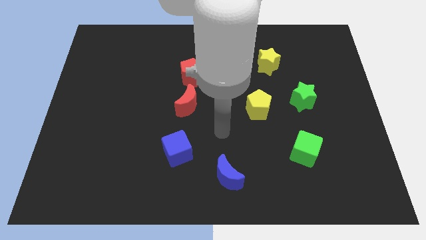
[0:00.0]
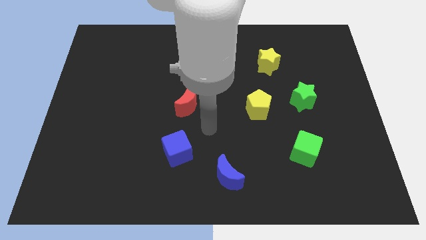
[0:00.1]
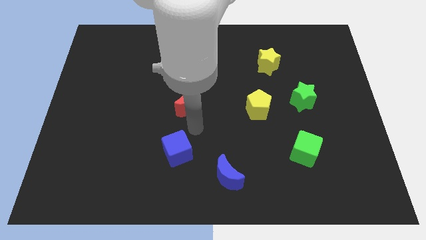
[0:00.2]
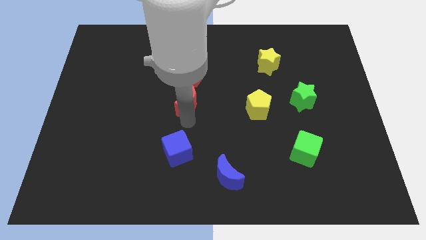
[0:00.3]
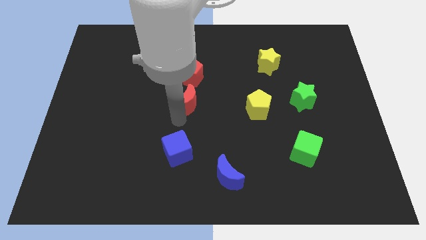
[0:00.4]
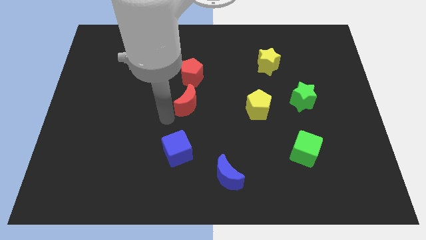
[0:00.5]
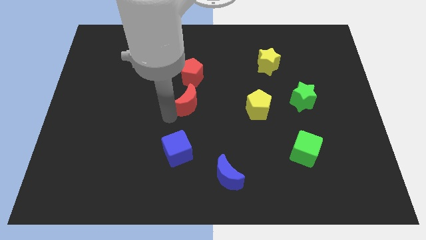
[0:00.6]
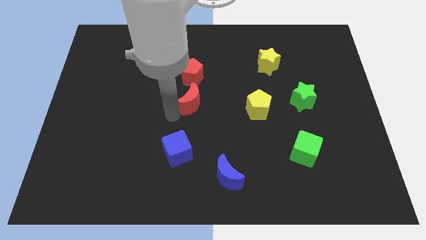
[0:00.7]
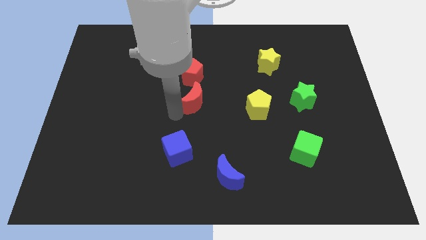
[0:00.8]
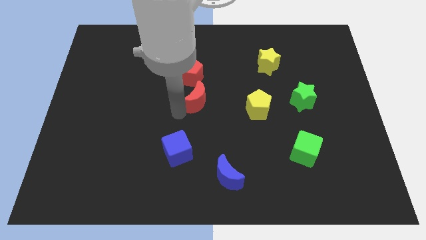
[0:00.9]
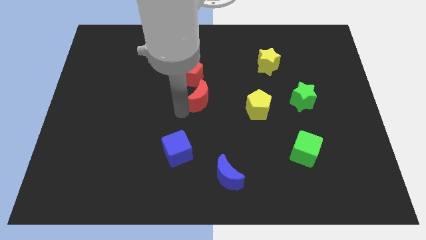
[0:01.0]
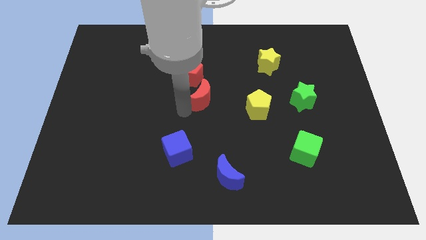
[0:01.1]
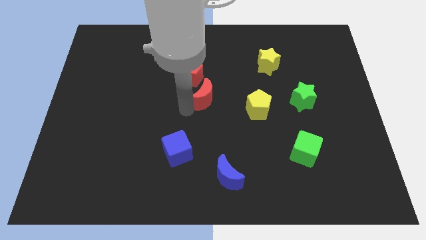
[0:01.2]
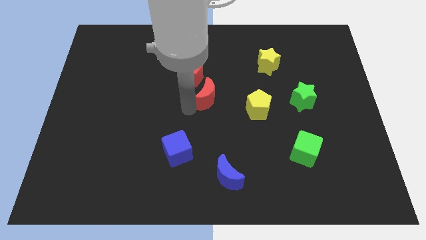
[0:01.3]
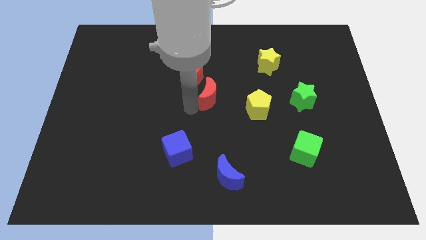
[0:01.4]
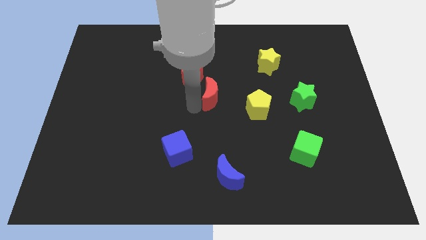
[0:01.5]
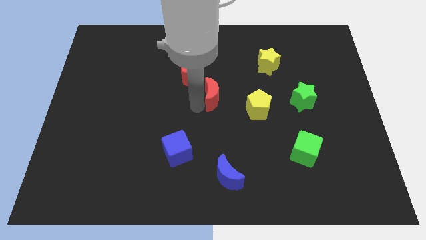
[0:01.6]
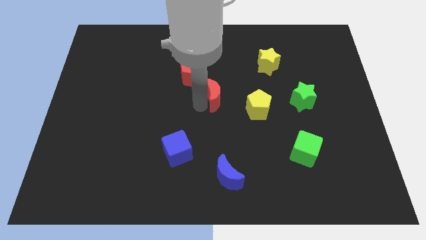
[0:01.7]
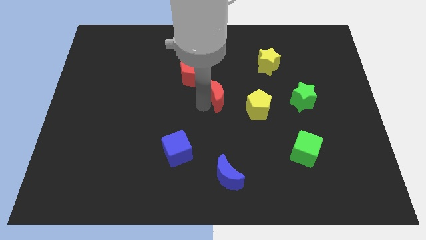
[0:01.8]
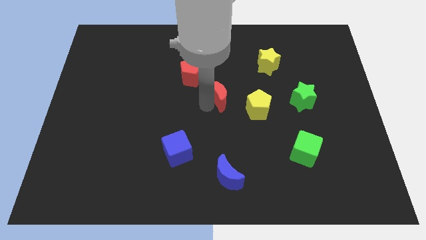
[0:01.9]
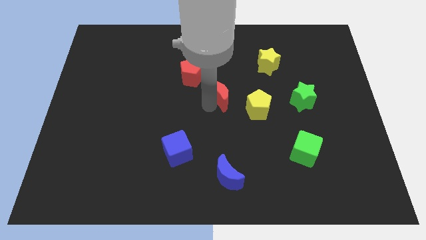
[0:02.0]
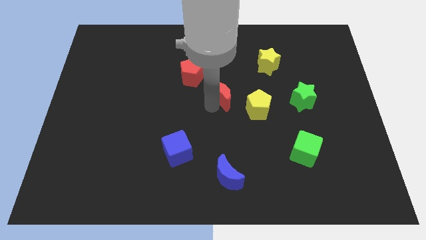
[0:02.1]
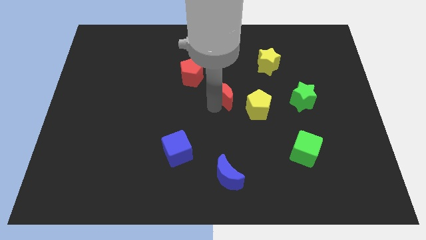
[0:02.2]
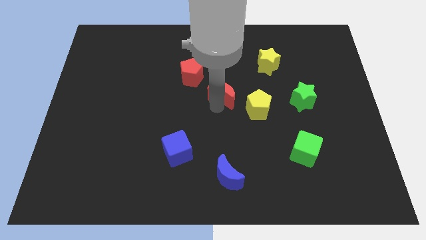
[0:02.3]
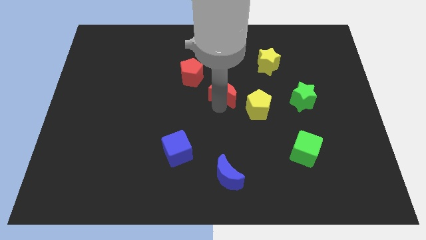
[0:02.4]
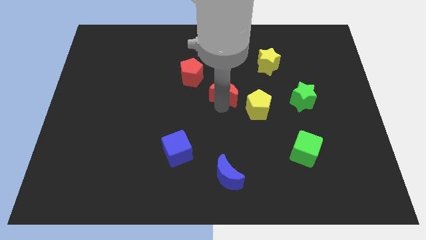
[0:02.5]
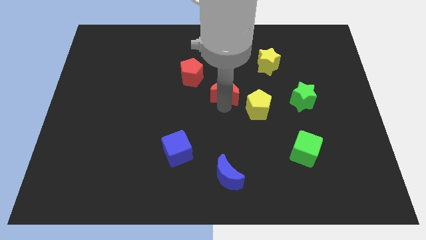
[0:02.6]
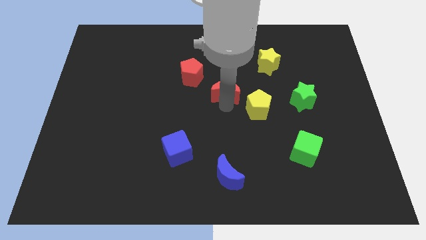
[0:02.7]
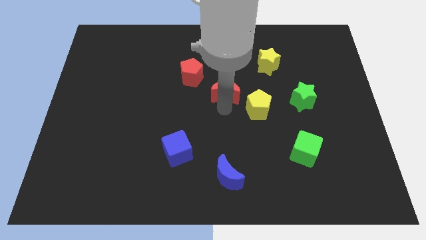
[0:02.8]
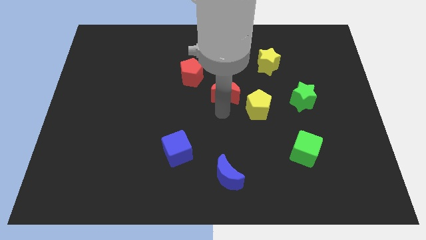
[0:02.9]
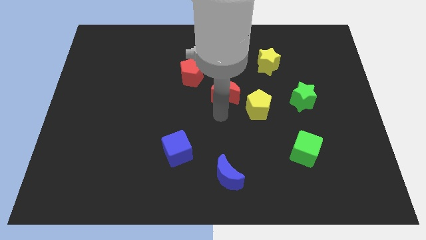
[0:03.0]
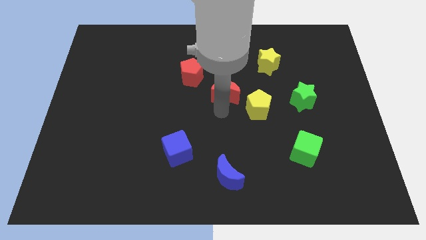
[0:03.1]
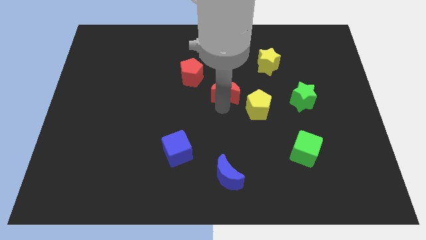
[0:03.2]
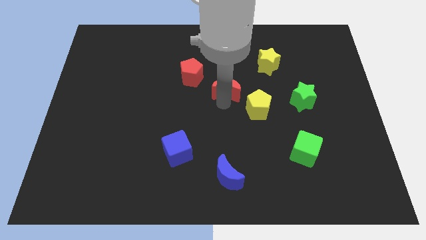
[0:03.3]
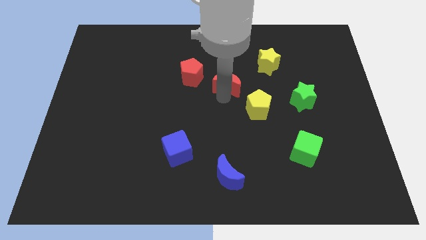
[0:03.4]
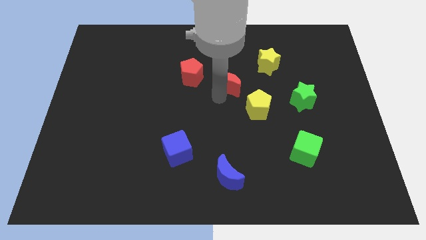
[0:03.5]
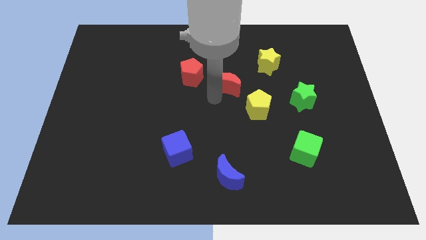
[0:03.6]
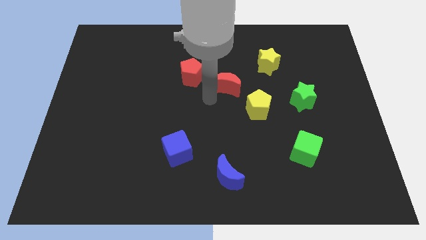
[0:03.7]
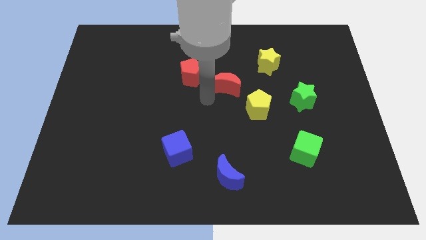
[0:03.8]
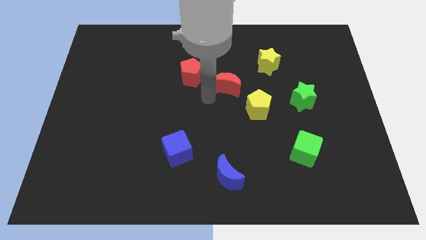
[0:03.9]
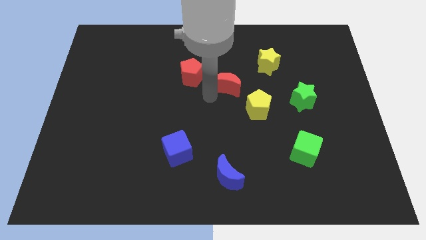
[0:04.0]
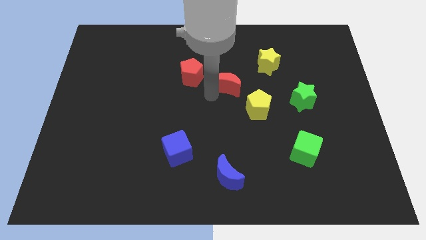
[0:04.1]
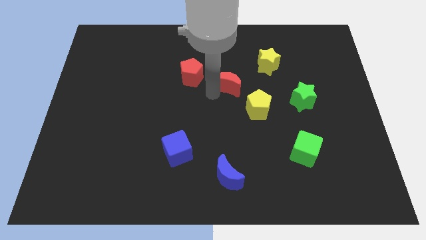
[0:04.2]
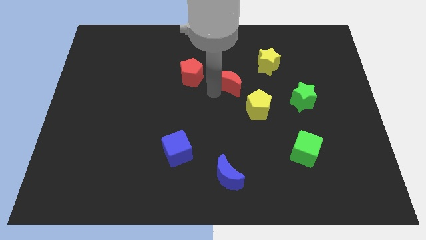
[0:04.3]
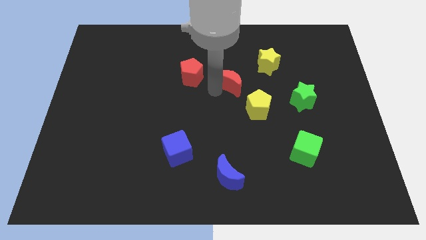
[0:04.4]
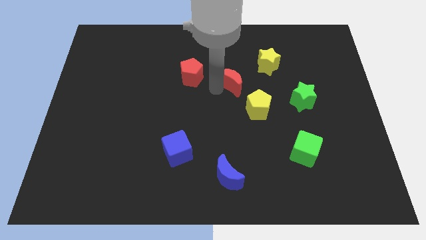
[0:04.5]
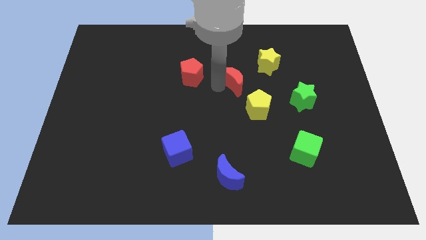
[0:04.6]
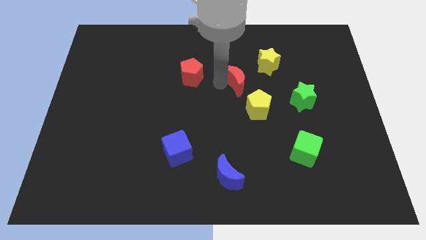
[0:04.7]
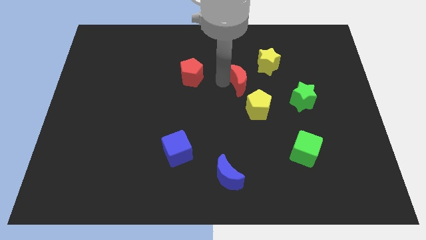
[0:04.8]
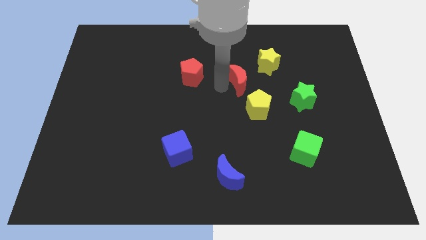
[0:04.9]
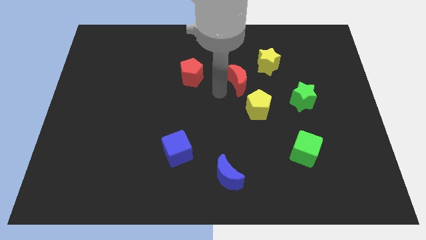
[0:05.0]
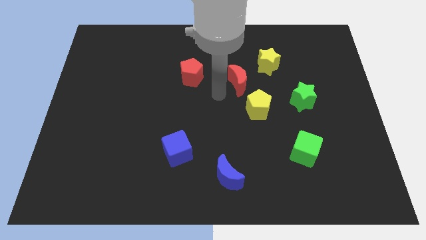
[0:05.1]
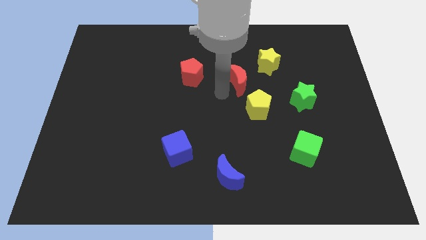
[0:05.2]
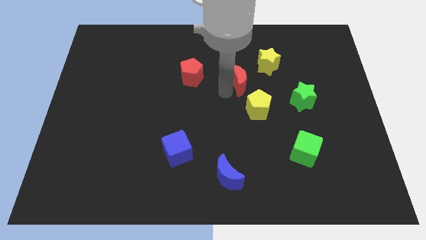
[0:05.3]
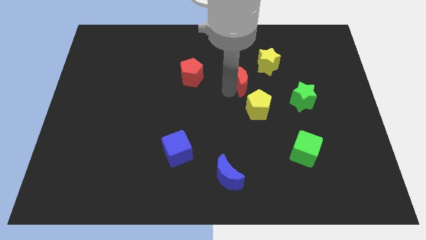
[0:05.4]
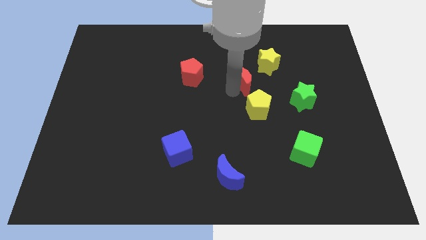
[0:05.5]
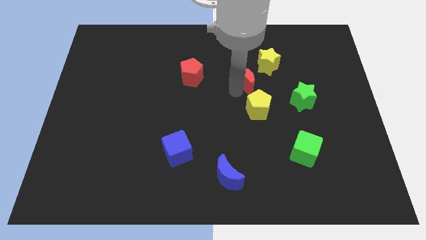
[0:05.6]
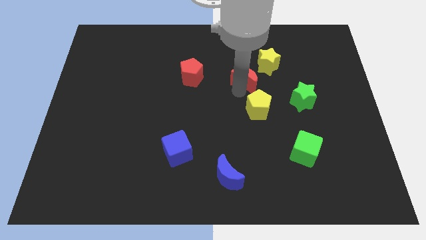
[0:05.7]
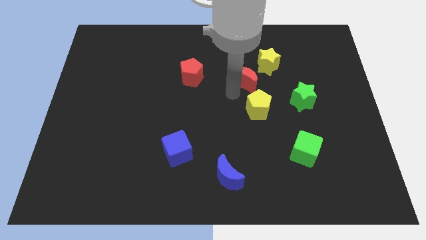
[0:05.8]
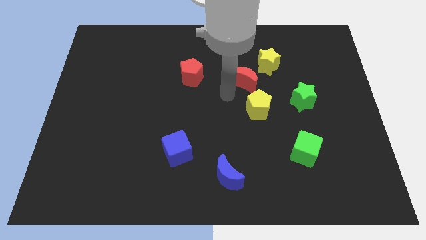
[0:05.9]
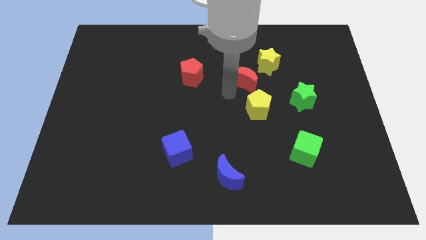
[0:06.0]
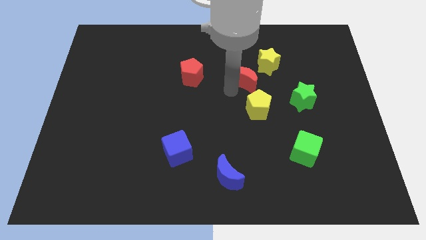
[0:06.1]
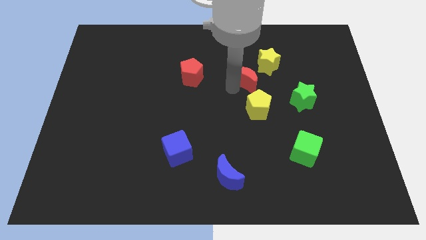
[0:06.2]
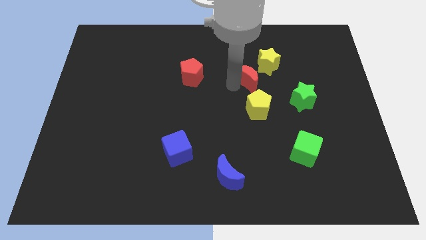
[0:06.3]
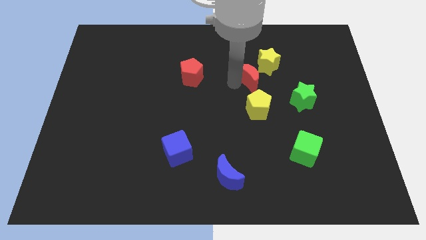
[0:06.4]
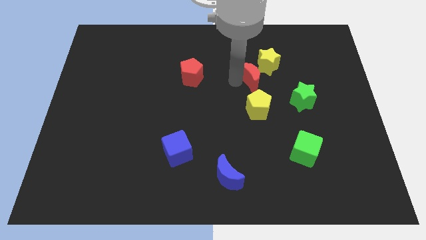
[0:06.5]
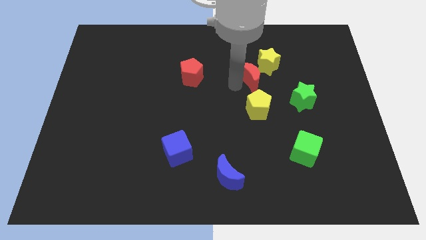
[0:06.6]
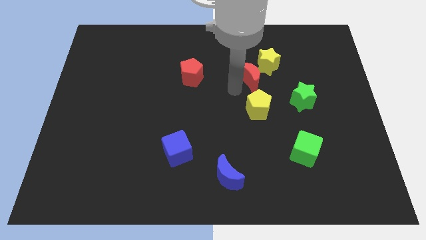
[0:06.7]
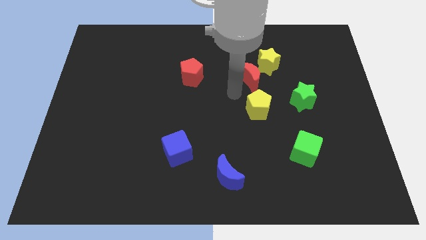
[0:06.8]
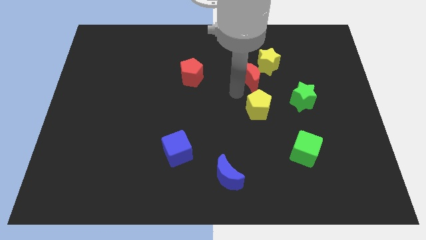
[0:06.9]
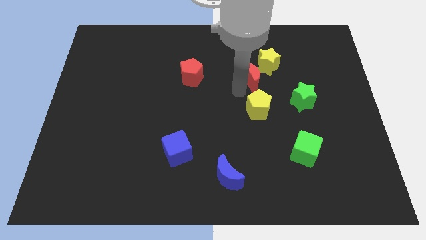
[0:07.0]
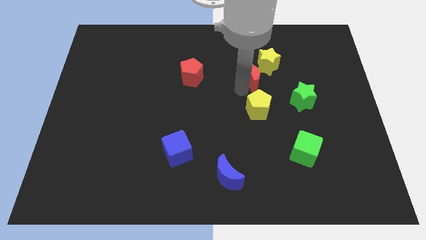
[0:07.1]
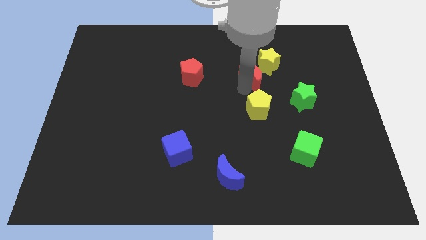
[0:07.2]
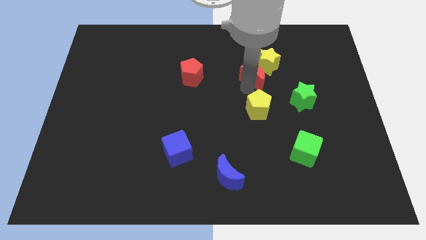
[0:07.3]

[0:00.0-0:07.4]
push the red moon next to the yellow star
